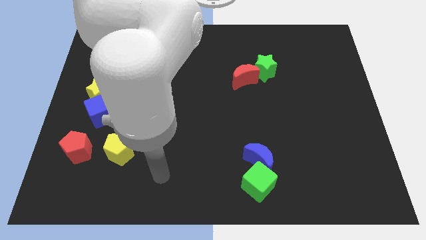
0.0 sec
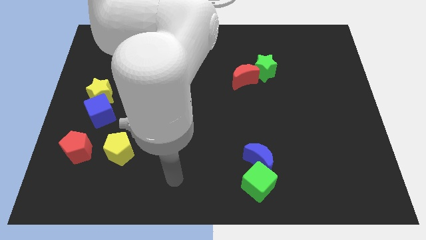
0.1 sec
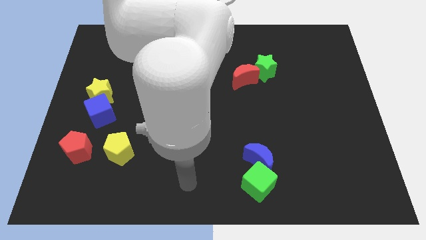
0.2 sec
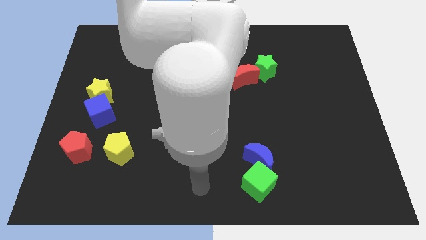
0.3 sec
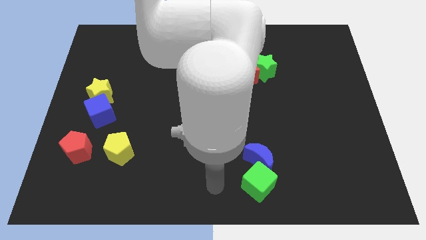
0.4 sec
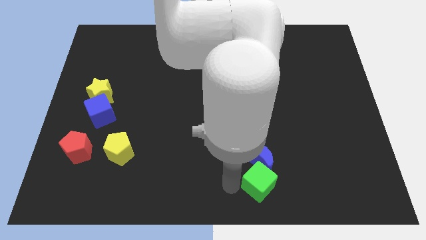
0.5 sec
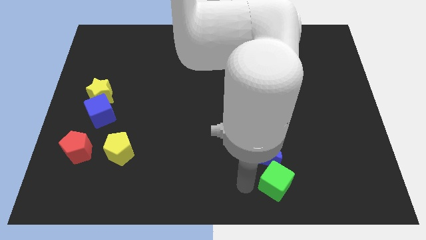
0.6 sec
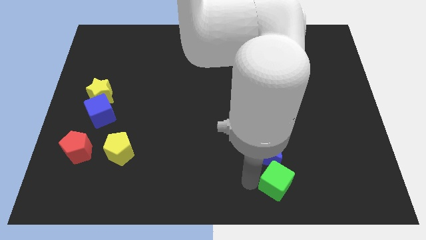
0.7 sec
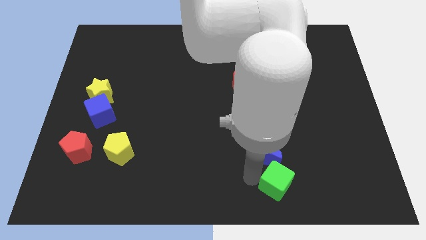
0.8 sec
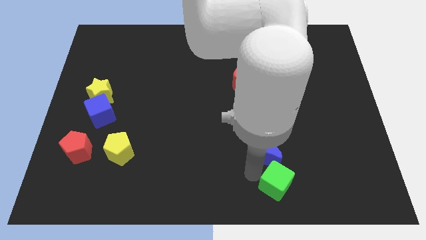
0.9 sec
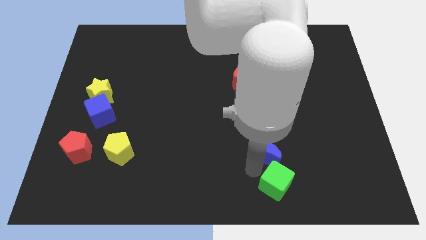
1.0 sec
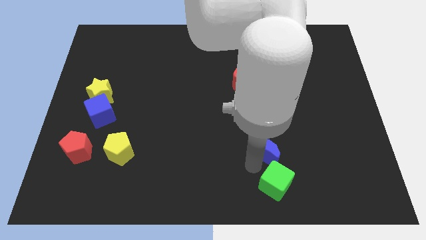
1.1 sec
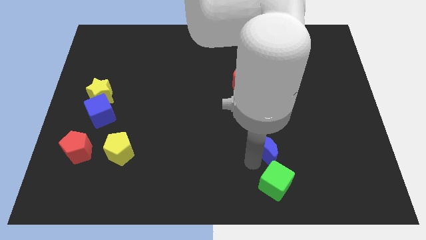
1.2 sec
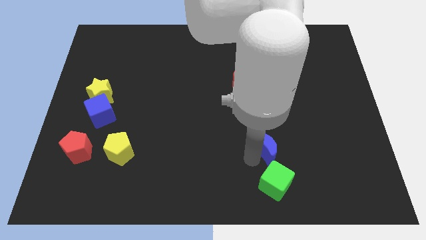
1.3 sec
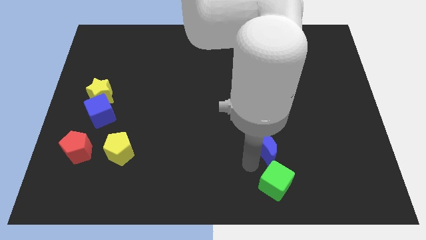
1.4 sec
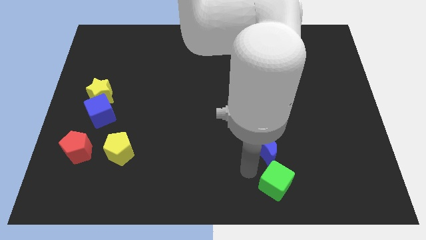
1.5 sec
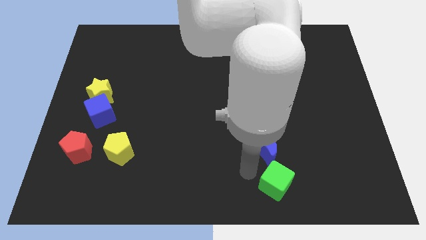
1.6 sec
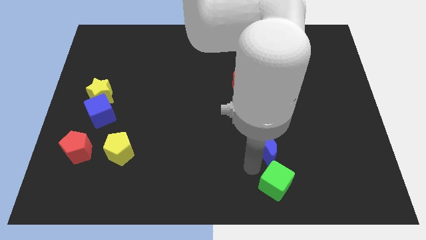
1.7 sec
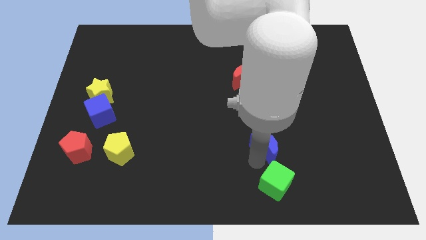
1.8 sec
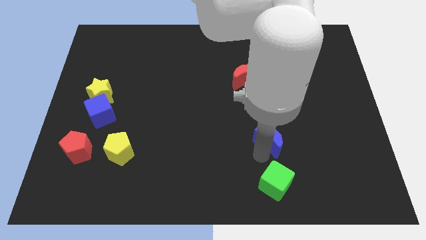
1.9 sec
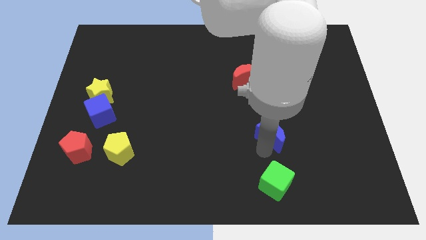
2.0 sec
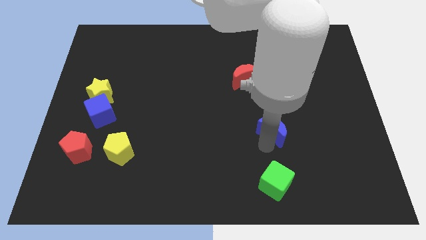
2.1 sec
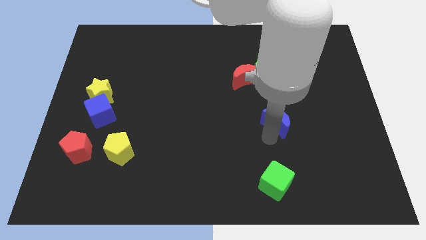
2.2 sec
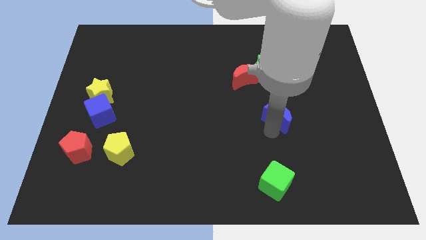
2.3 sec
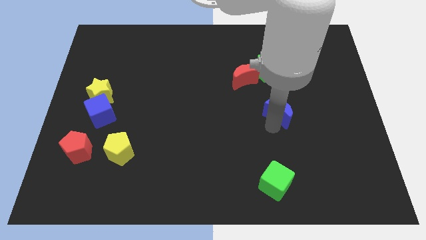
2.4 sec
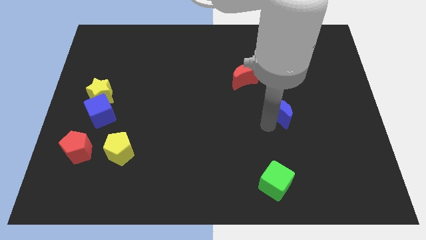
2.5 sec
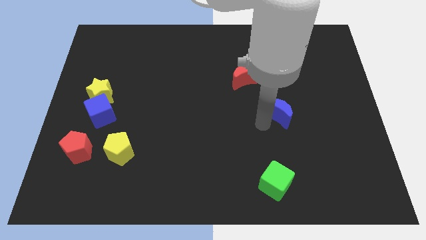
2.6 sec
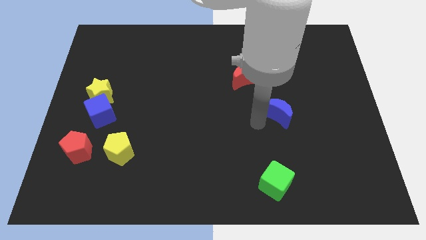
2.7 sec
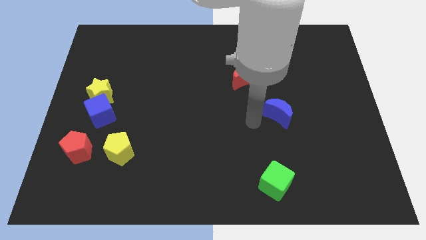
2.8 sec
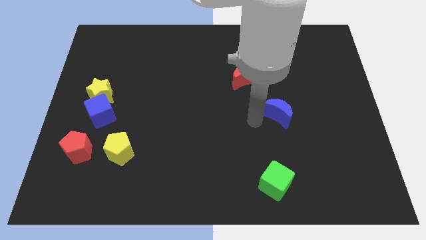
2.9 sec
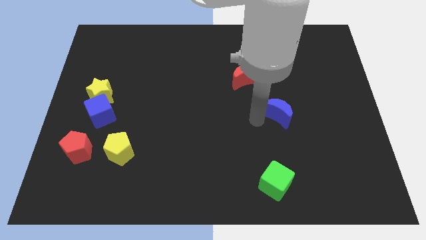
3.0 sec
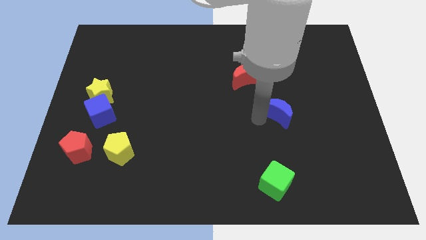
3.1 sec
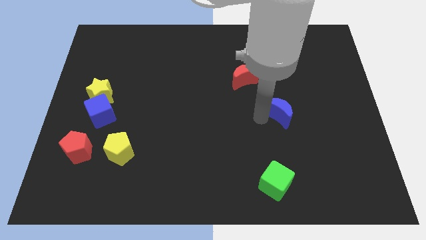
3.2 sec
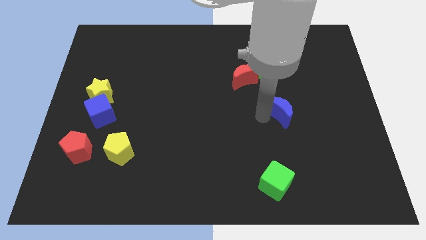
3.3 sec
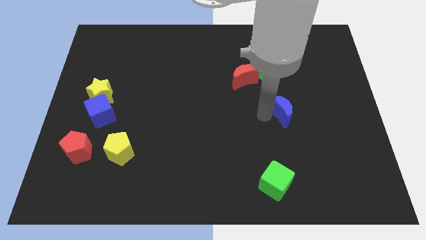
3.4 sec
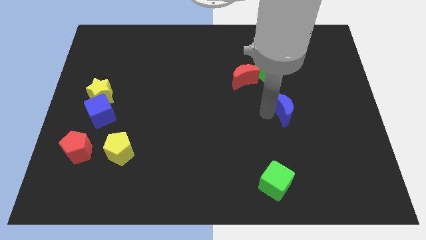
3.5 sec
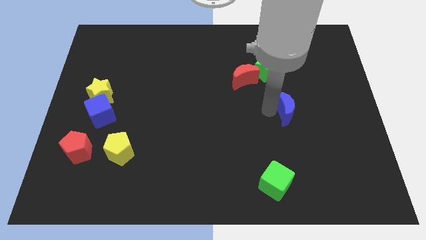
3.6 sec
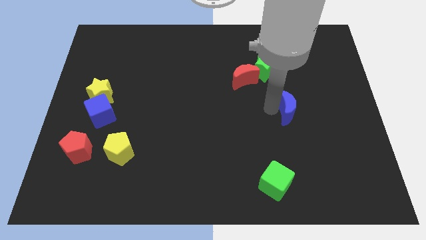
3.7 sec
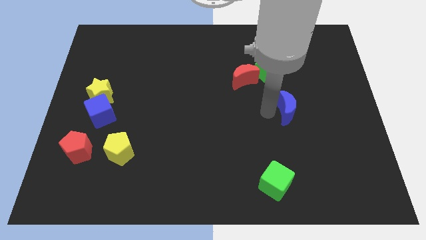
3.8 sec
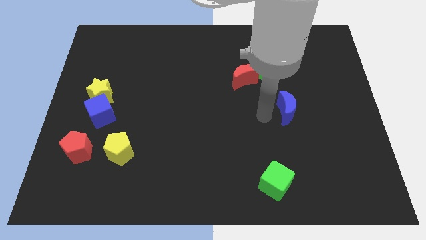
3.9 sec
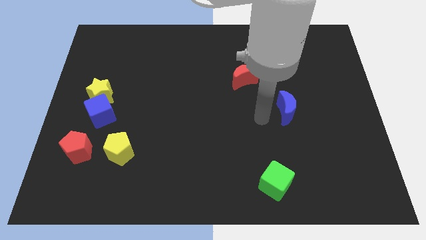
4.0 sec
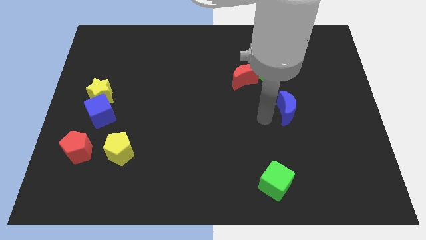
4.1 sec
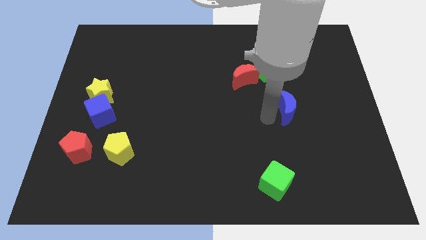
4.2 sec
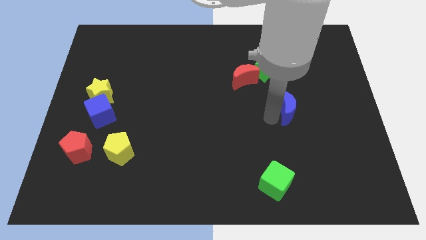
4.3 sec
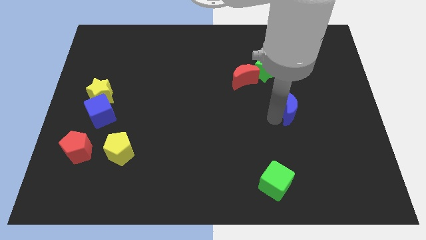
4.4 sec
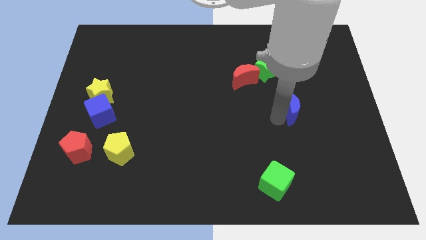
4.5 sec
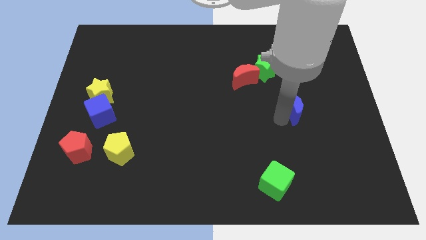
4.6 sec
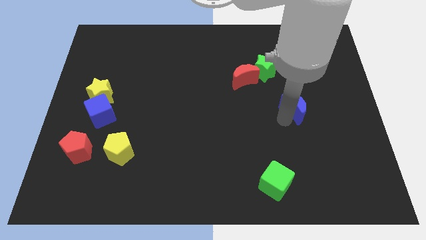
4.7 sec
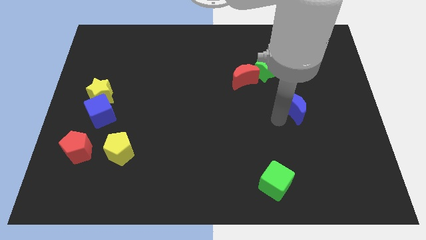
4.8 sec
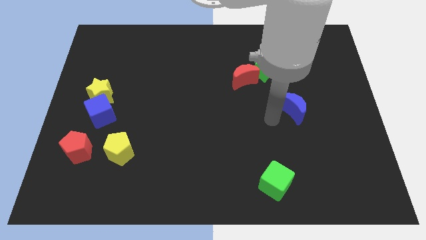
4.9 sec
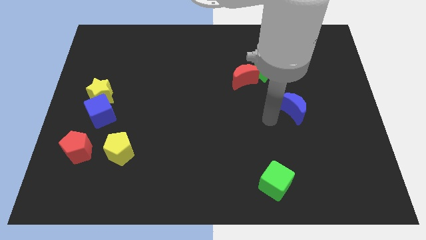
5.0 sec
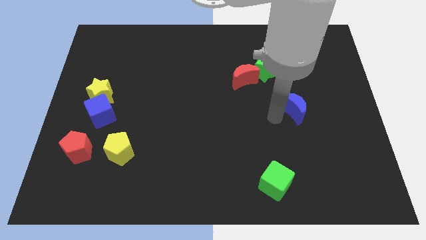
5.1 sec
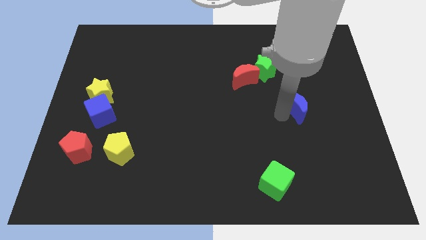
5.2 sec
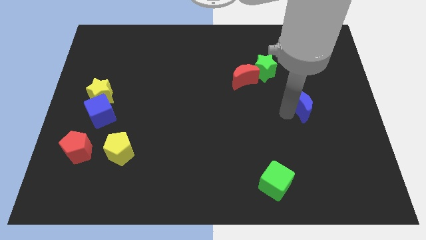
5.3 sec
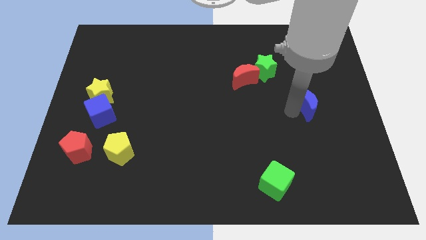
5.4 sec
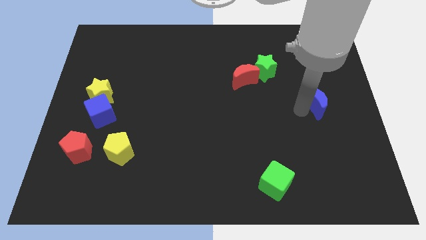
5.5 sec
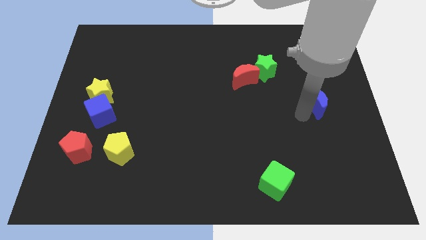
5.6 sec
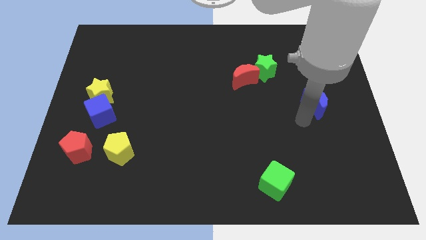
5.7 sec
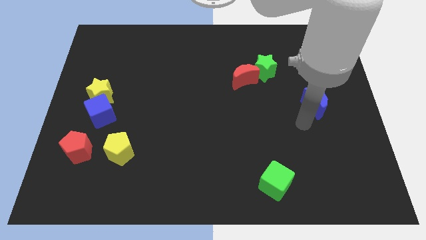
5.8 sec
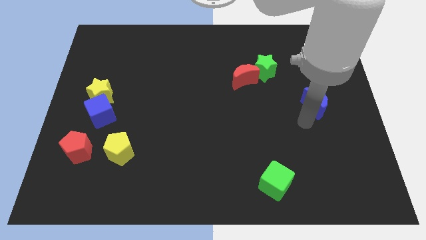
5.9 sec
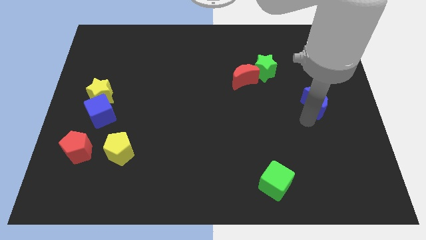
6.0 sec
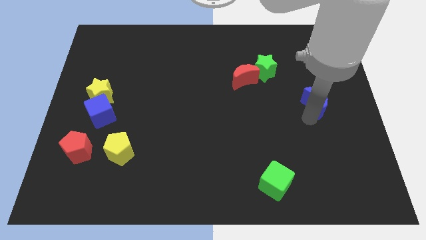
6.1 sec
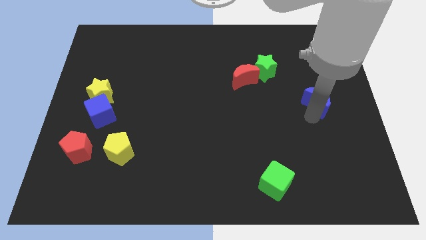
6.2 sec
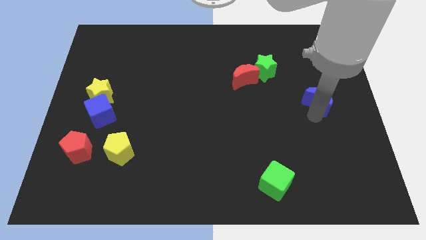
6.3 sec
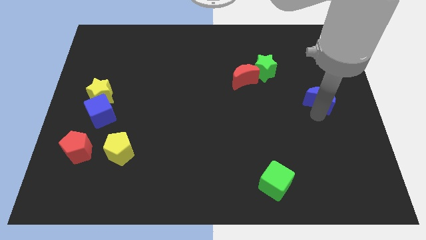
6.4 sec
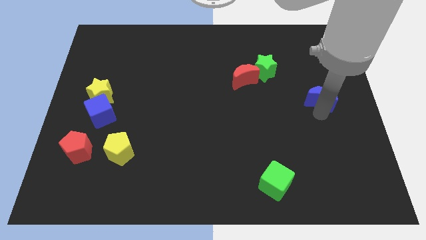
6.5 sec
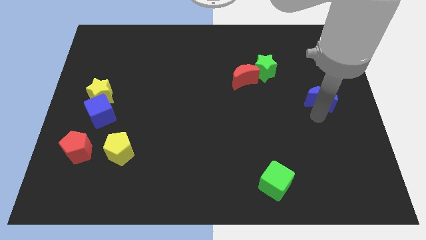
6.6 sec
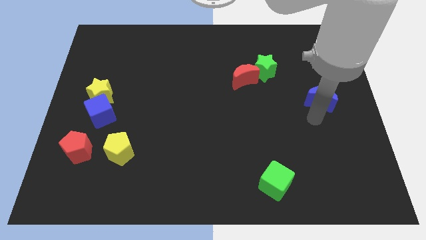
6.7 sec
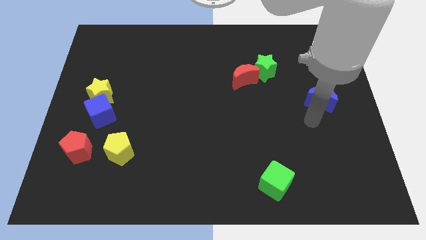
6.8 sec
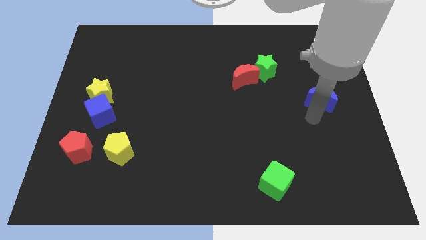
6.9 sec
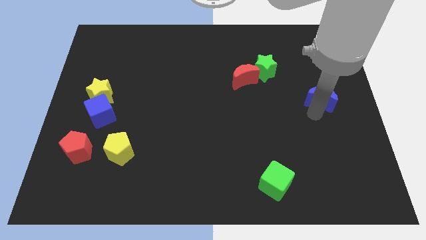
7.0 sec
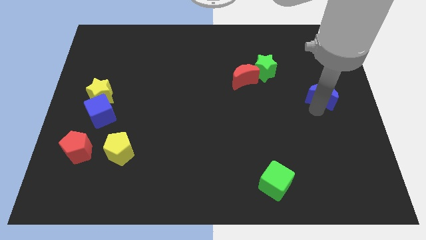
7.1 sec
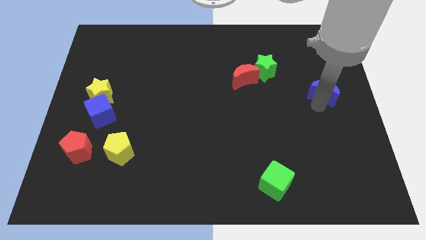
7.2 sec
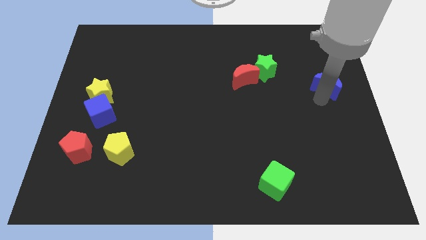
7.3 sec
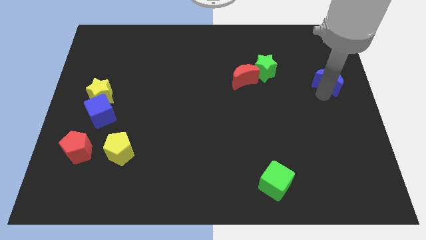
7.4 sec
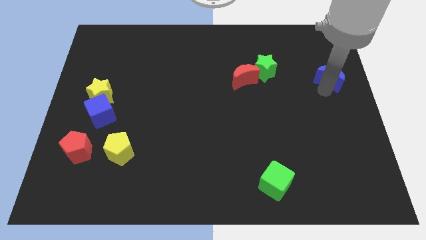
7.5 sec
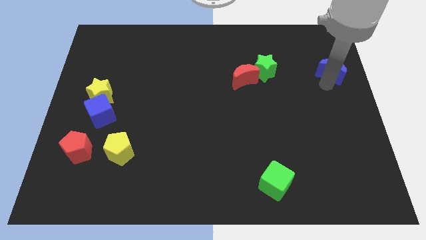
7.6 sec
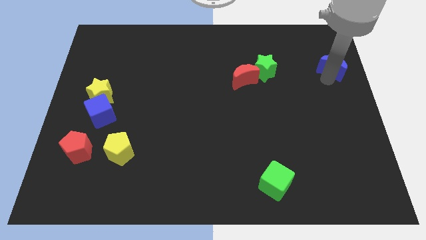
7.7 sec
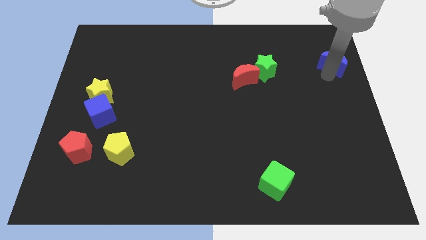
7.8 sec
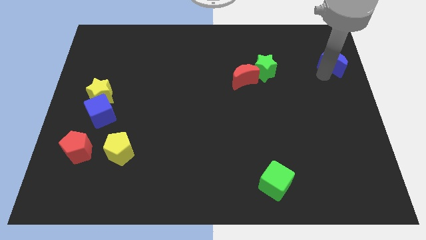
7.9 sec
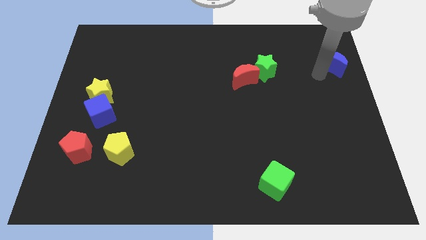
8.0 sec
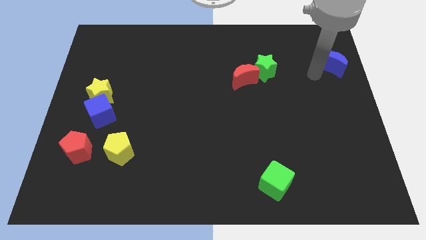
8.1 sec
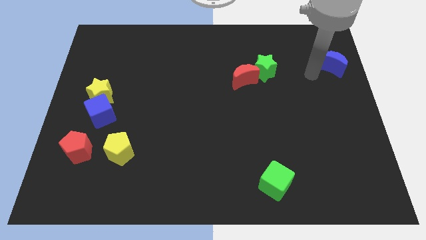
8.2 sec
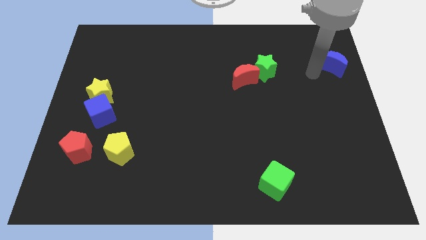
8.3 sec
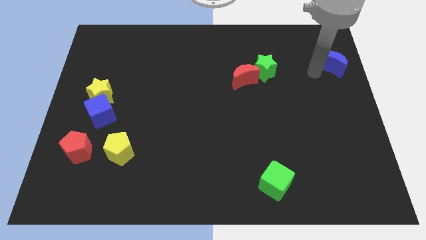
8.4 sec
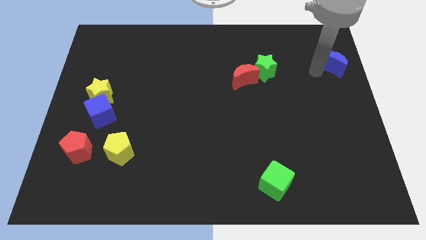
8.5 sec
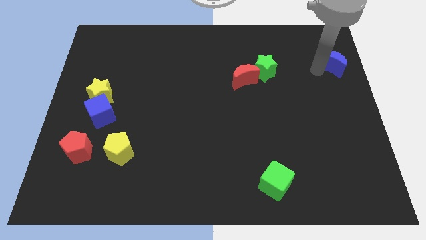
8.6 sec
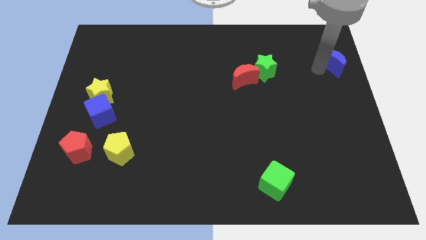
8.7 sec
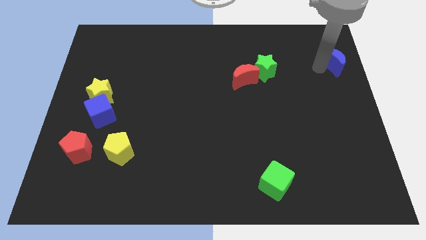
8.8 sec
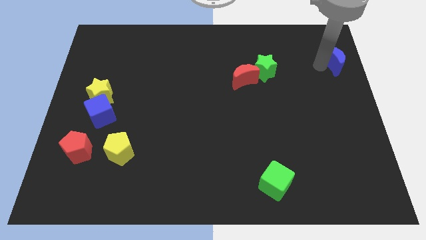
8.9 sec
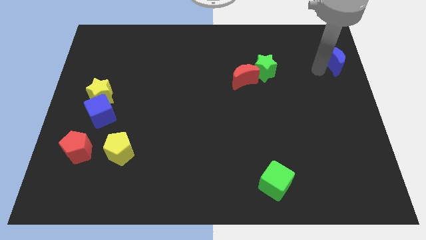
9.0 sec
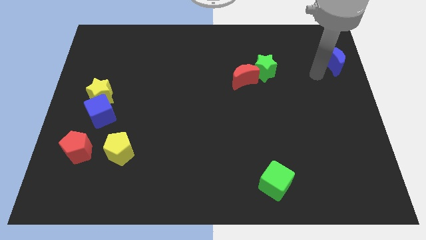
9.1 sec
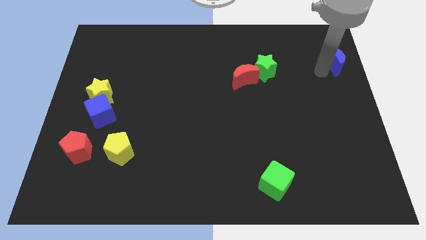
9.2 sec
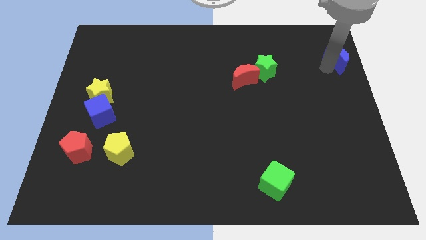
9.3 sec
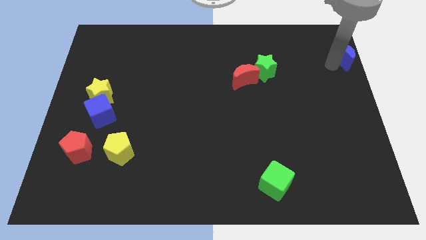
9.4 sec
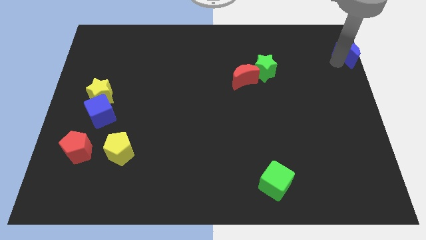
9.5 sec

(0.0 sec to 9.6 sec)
put the blue moon to the upper right corner
